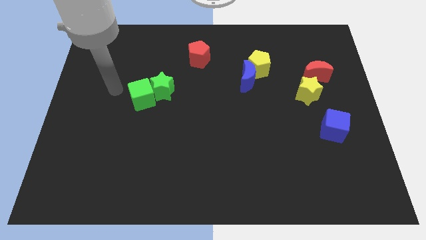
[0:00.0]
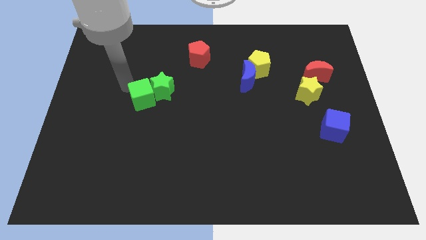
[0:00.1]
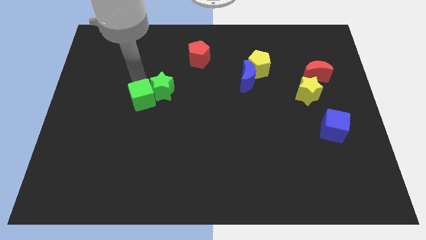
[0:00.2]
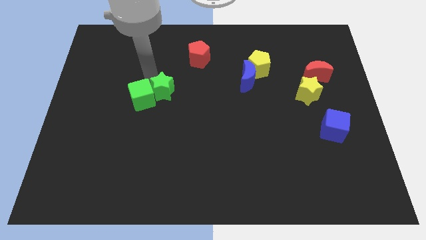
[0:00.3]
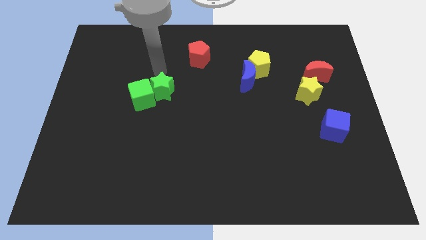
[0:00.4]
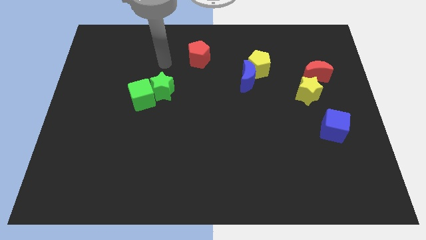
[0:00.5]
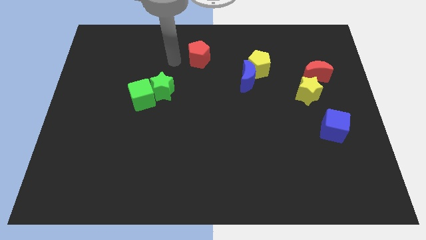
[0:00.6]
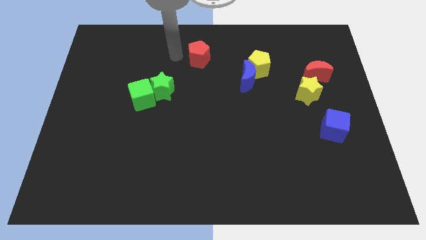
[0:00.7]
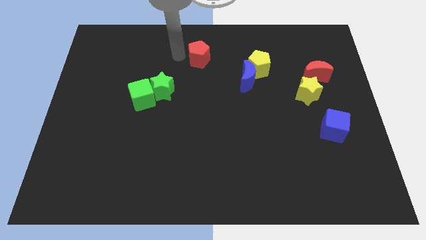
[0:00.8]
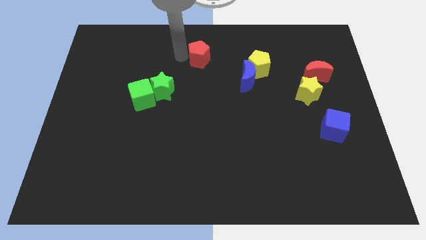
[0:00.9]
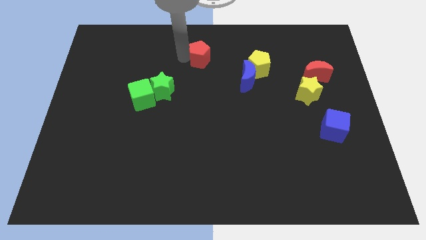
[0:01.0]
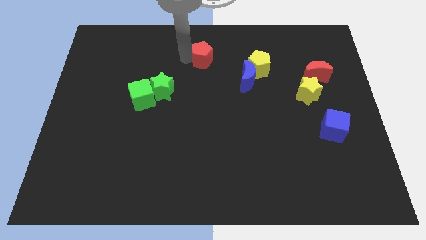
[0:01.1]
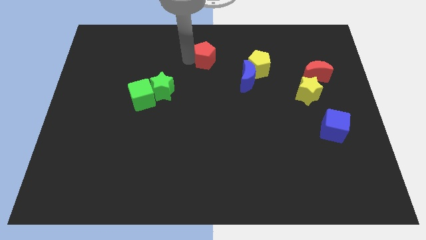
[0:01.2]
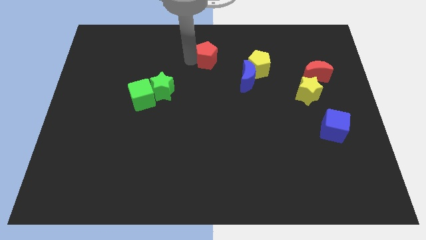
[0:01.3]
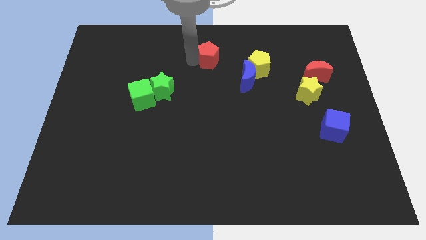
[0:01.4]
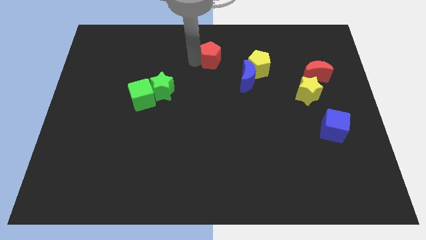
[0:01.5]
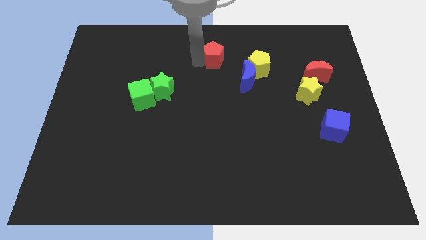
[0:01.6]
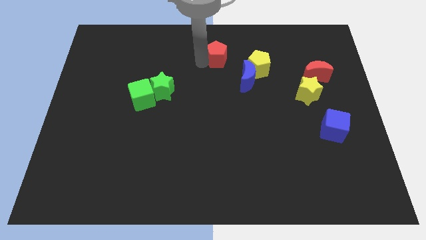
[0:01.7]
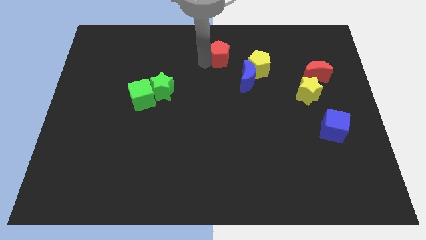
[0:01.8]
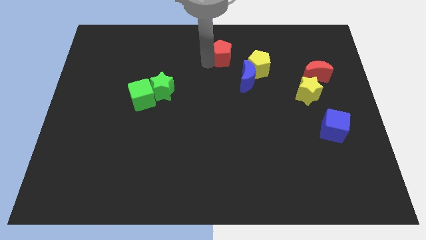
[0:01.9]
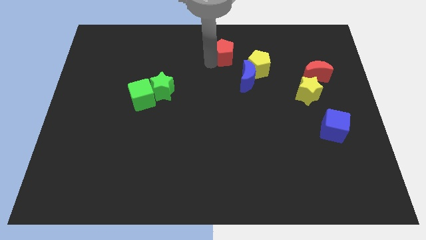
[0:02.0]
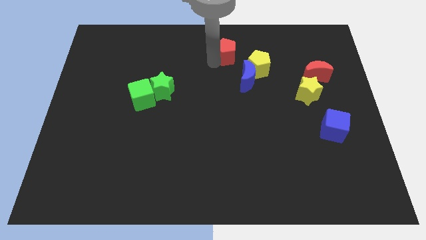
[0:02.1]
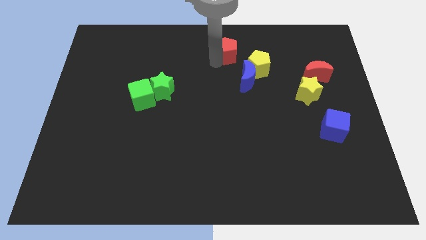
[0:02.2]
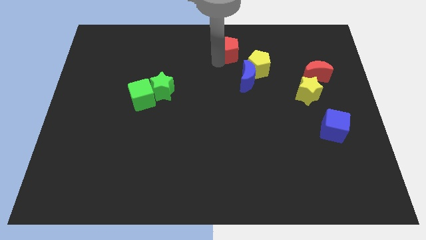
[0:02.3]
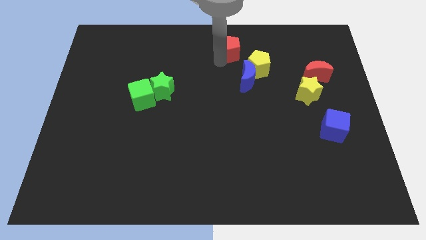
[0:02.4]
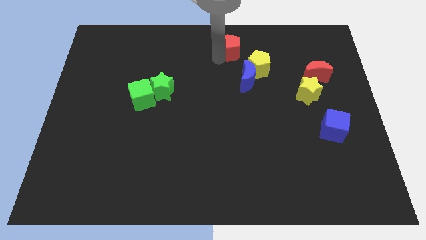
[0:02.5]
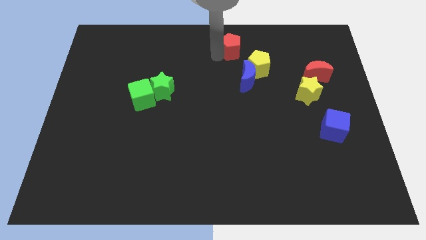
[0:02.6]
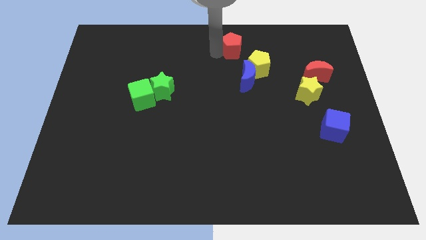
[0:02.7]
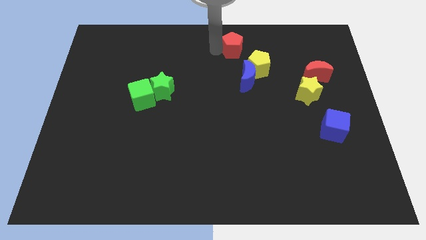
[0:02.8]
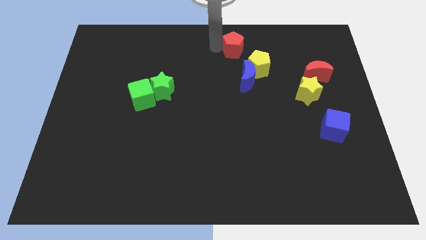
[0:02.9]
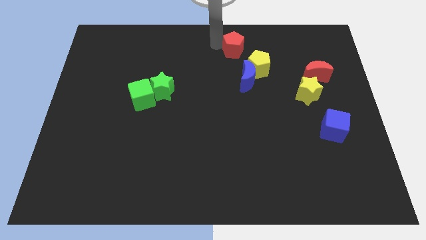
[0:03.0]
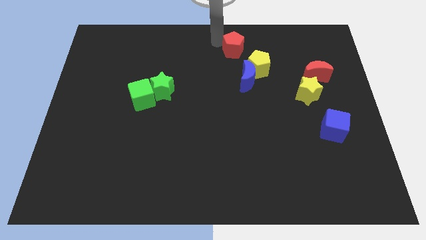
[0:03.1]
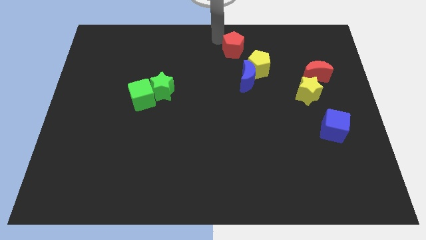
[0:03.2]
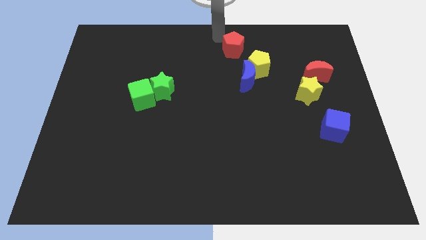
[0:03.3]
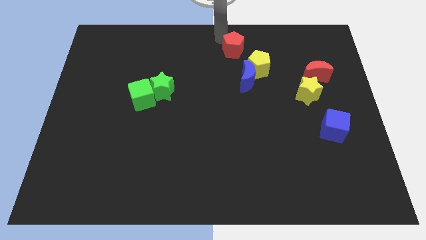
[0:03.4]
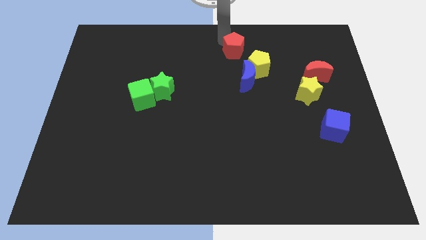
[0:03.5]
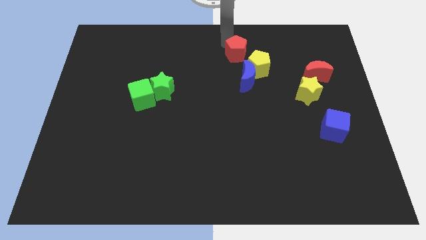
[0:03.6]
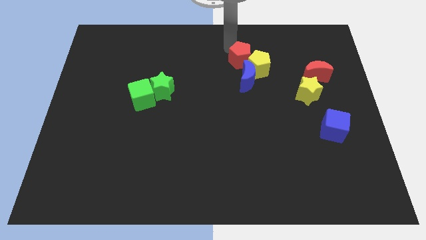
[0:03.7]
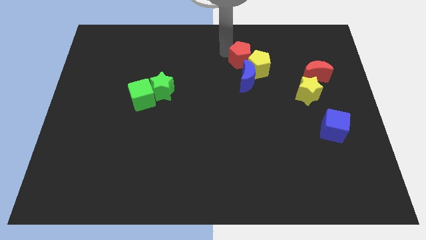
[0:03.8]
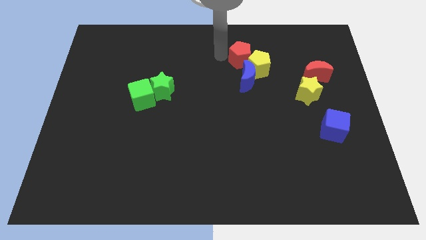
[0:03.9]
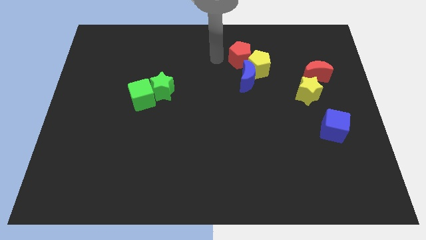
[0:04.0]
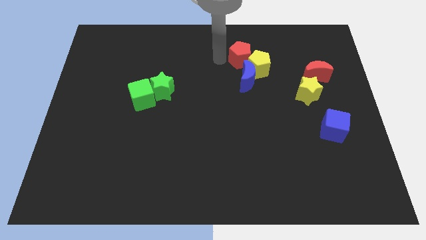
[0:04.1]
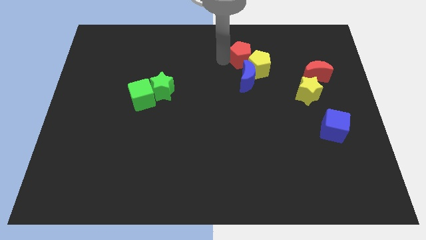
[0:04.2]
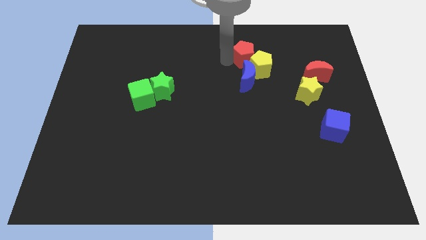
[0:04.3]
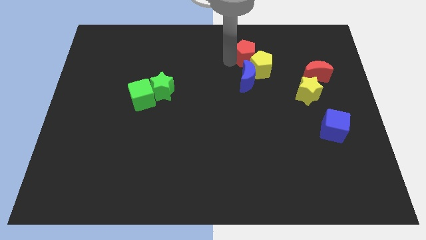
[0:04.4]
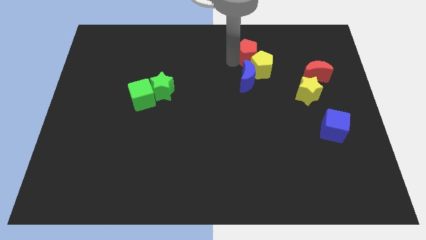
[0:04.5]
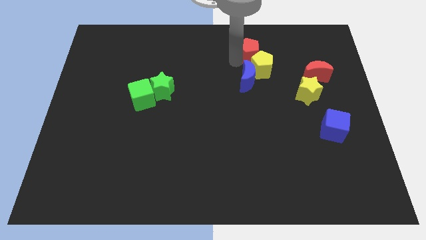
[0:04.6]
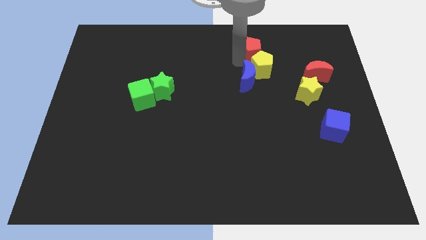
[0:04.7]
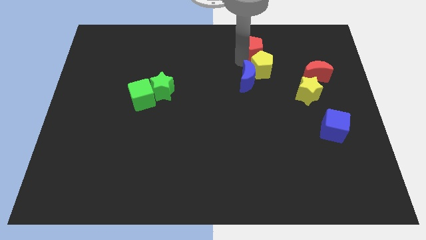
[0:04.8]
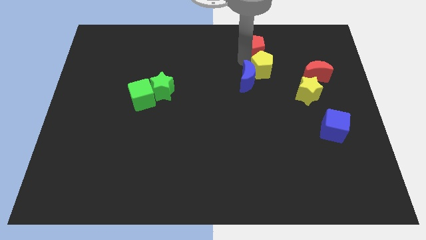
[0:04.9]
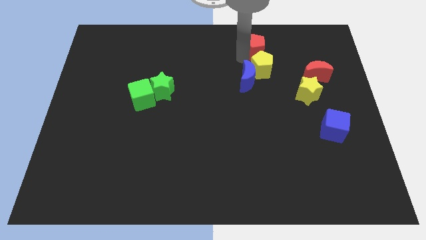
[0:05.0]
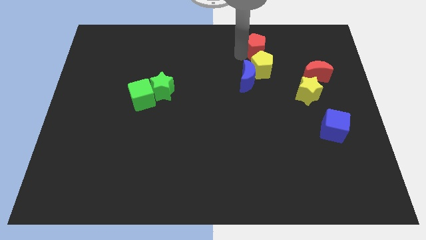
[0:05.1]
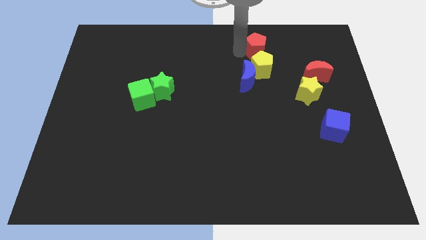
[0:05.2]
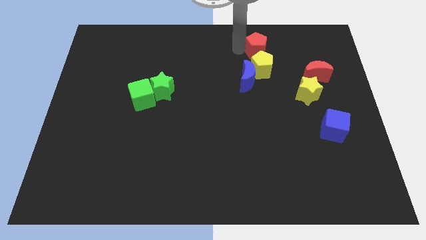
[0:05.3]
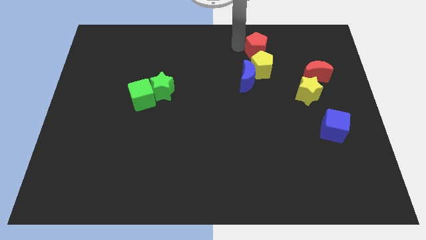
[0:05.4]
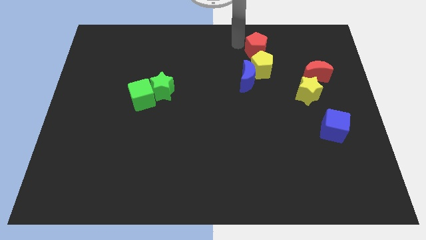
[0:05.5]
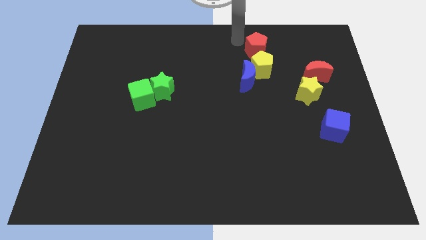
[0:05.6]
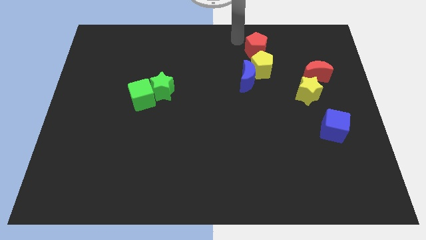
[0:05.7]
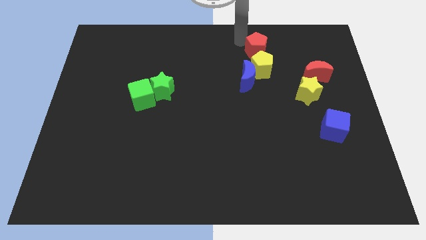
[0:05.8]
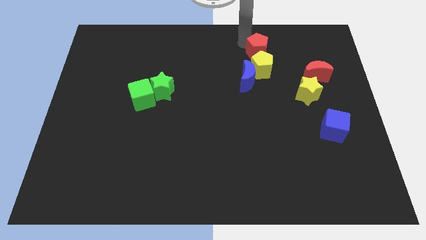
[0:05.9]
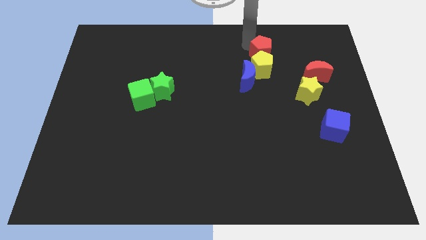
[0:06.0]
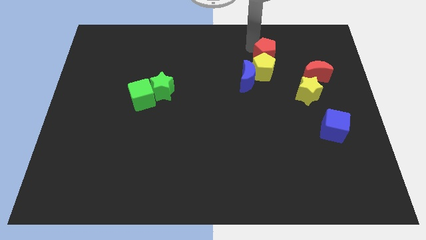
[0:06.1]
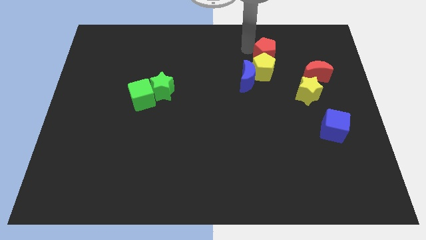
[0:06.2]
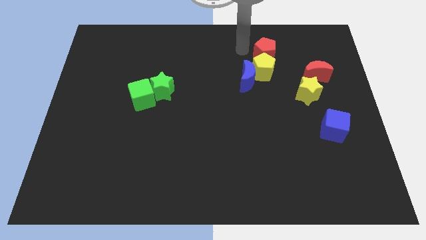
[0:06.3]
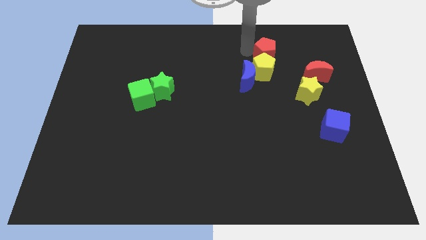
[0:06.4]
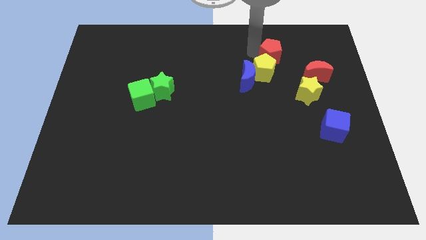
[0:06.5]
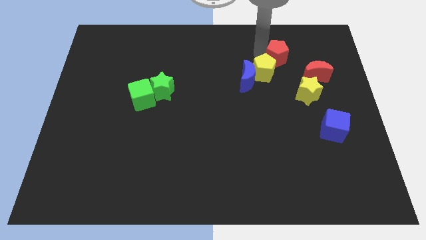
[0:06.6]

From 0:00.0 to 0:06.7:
move the red pentagon to the right

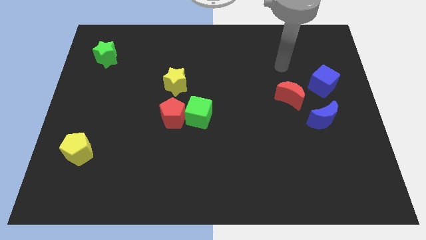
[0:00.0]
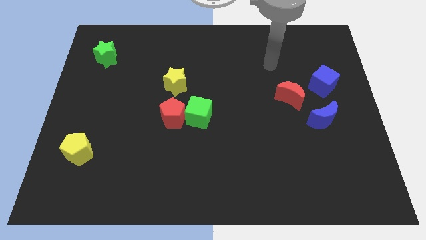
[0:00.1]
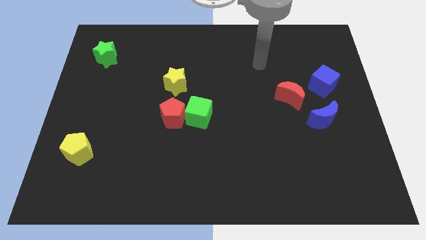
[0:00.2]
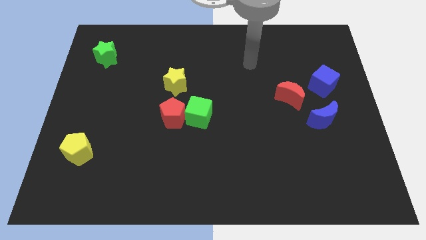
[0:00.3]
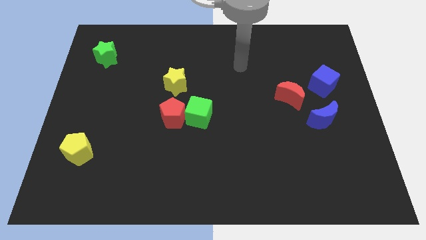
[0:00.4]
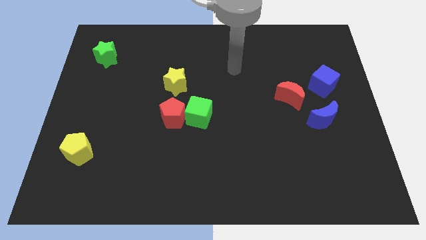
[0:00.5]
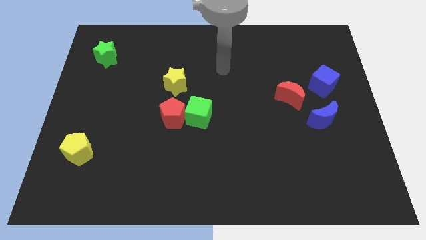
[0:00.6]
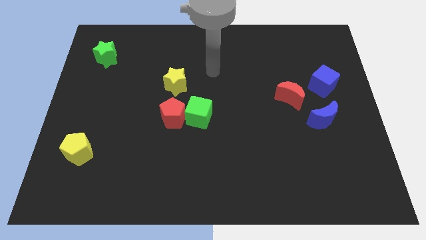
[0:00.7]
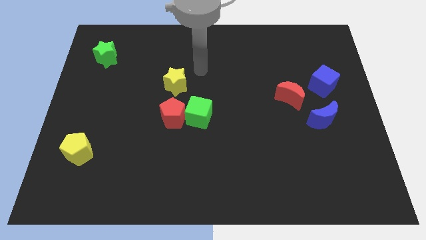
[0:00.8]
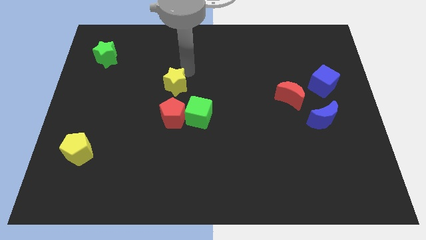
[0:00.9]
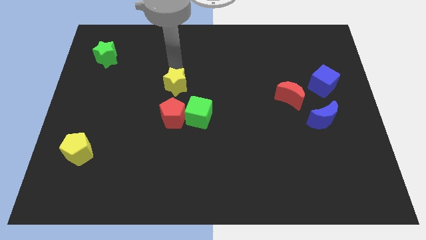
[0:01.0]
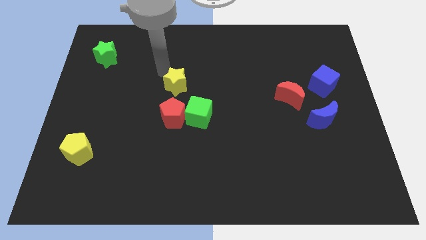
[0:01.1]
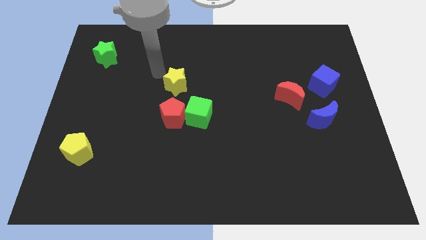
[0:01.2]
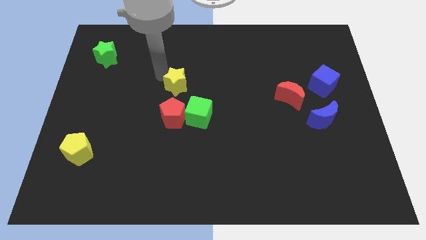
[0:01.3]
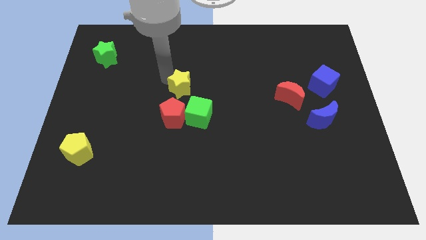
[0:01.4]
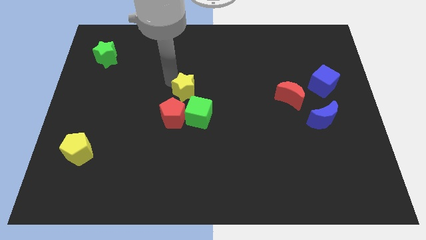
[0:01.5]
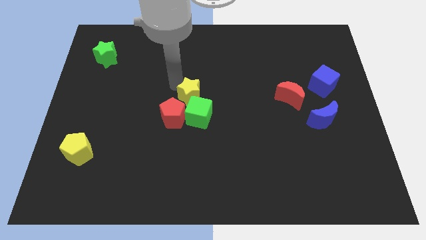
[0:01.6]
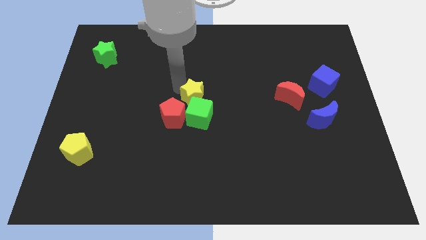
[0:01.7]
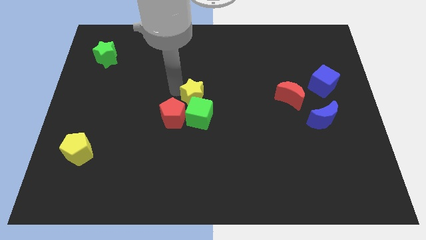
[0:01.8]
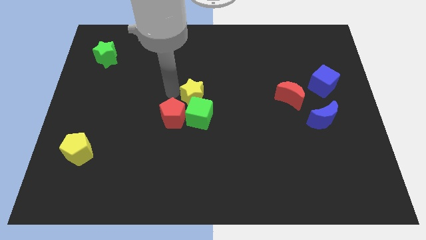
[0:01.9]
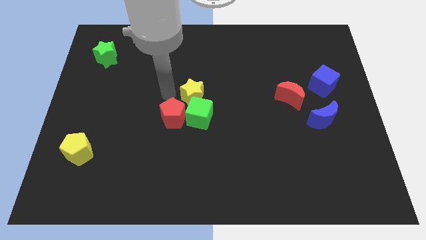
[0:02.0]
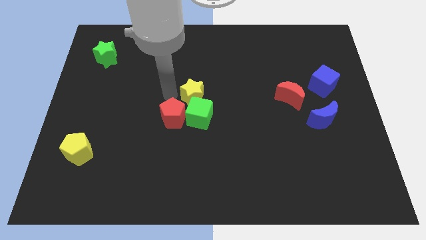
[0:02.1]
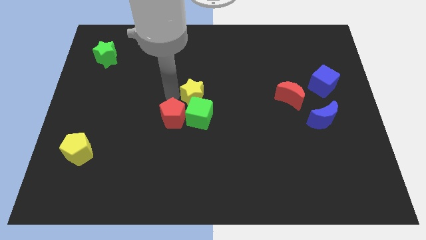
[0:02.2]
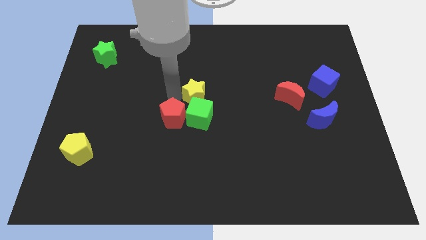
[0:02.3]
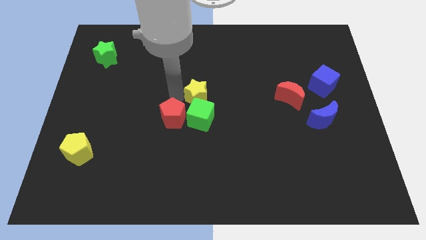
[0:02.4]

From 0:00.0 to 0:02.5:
move the yellow star a little downwards and to the right diagonally
